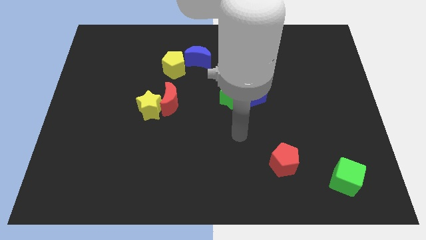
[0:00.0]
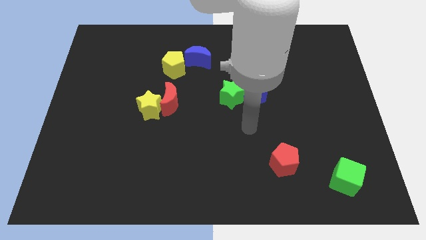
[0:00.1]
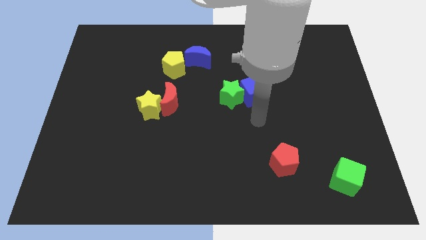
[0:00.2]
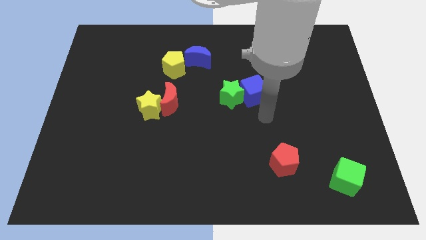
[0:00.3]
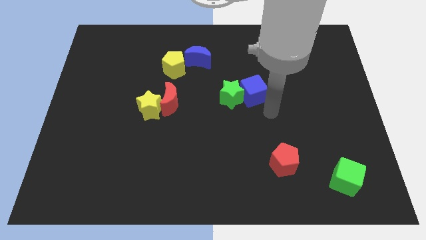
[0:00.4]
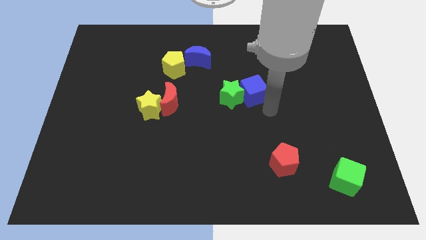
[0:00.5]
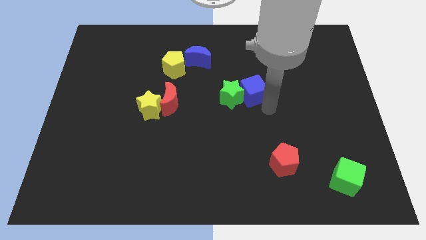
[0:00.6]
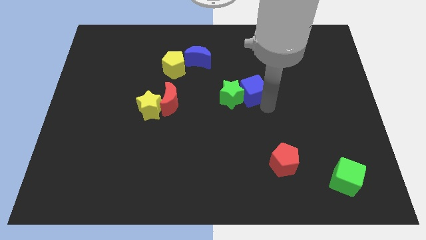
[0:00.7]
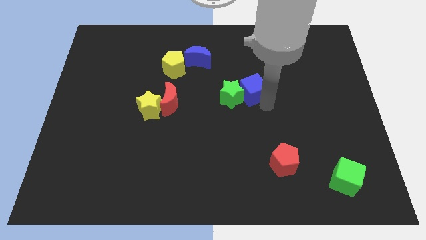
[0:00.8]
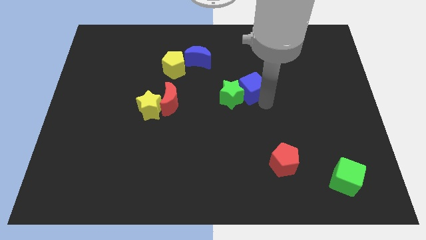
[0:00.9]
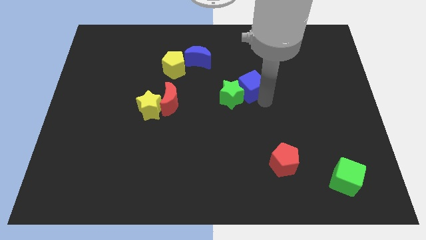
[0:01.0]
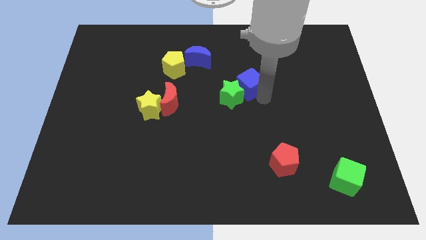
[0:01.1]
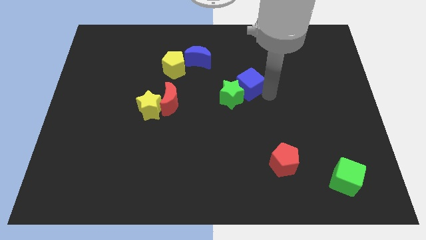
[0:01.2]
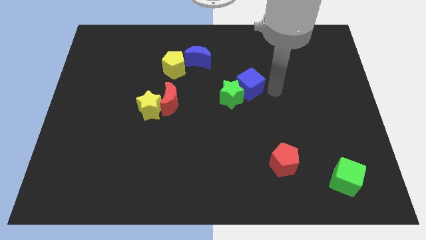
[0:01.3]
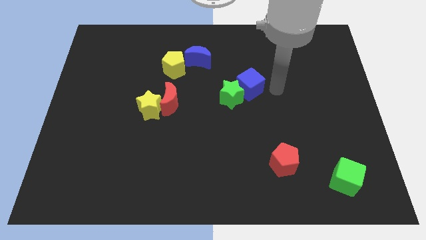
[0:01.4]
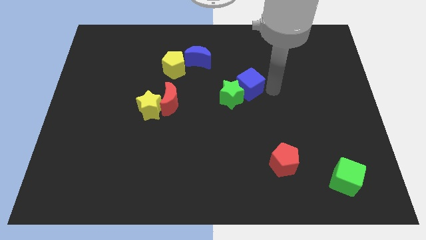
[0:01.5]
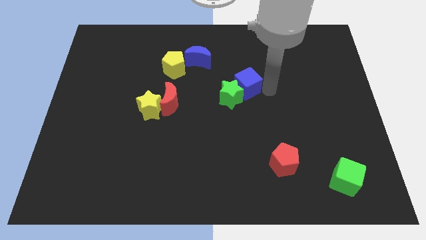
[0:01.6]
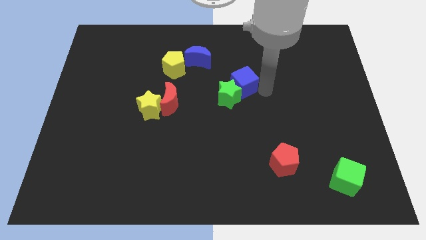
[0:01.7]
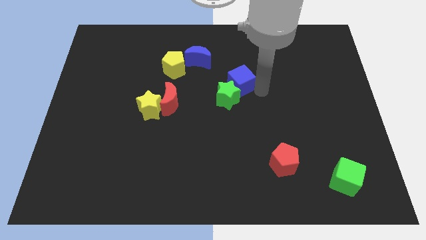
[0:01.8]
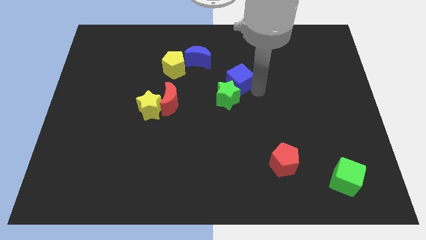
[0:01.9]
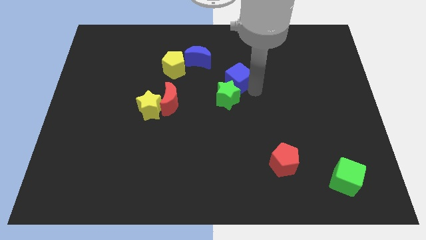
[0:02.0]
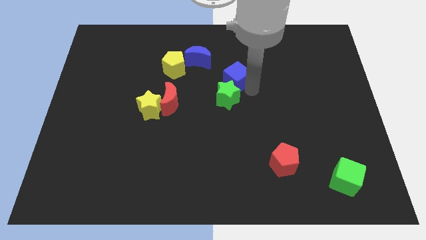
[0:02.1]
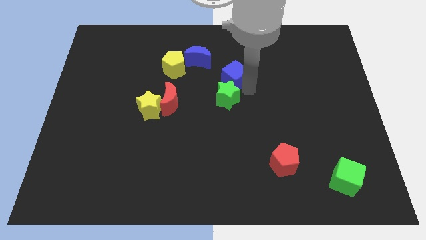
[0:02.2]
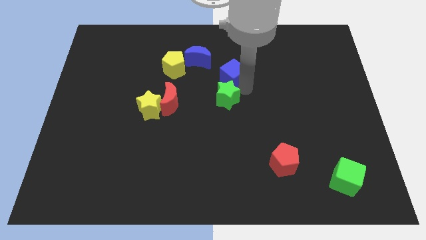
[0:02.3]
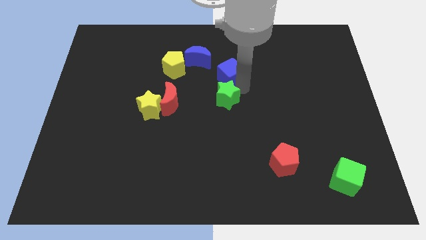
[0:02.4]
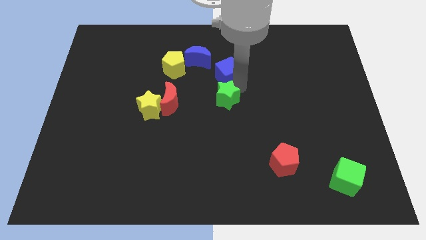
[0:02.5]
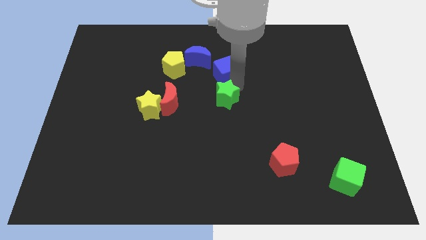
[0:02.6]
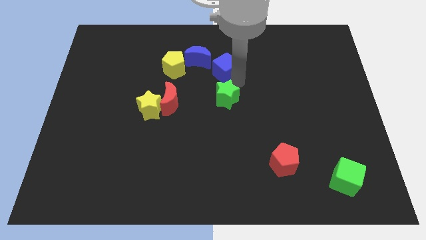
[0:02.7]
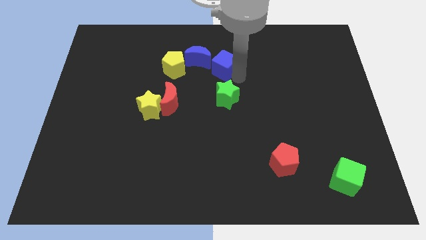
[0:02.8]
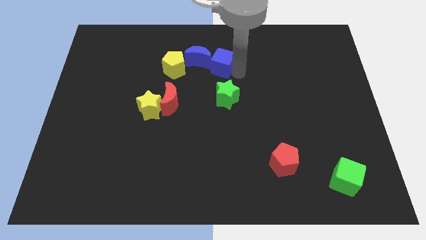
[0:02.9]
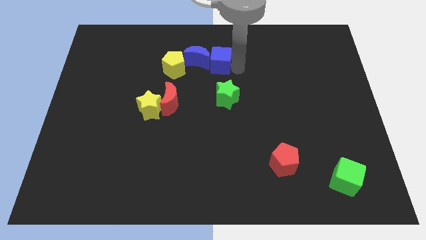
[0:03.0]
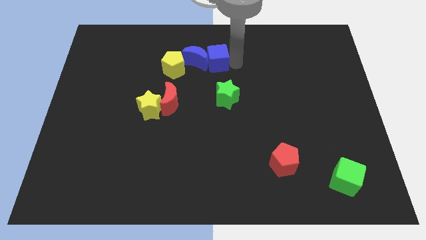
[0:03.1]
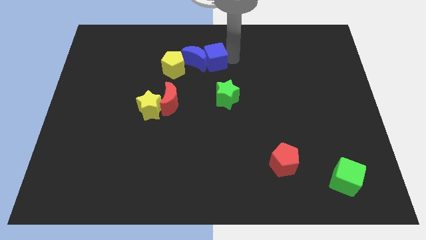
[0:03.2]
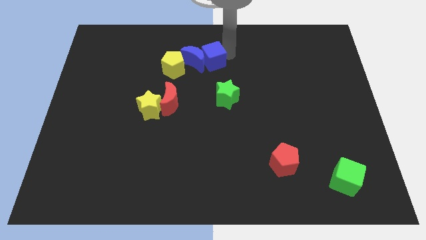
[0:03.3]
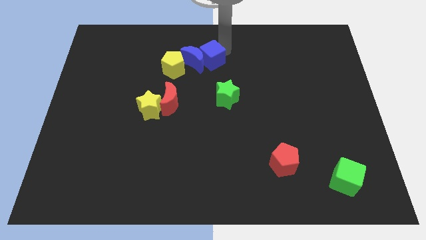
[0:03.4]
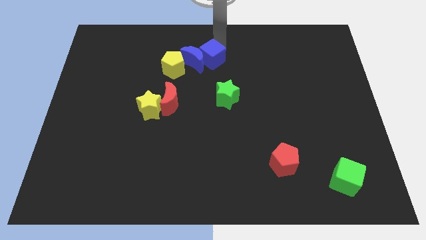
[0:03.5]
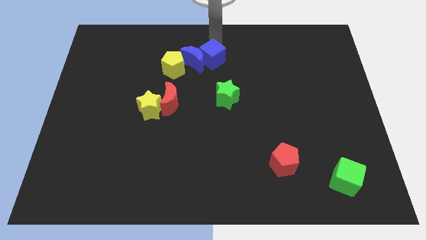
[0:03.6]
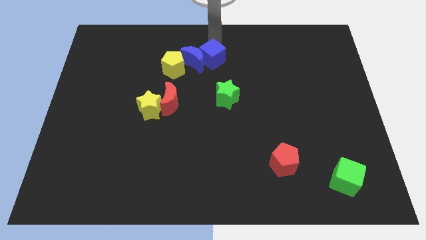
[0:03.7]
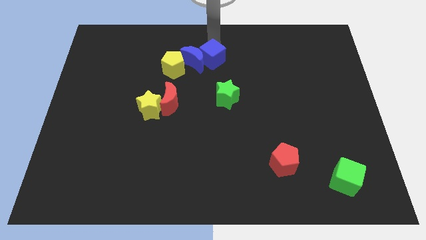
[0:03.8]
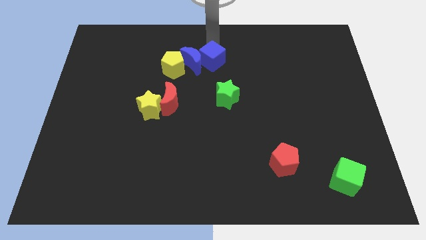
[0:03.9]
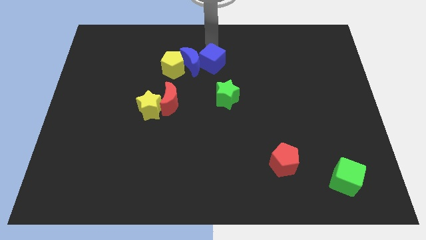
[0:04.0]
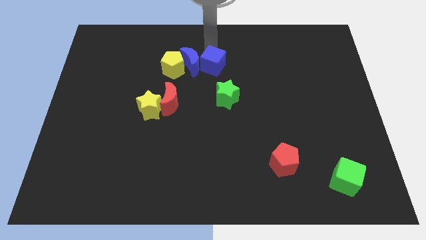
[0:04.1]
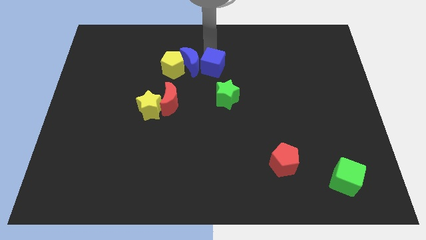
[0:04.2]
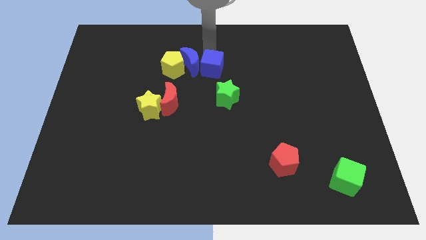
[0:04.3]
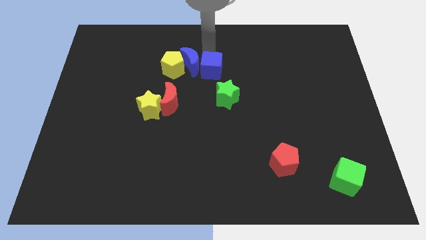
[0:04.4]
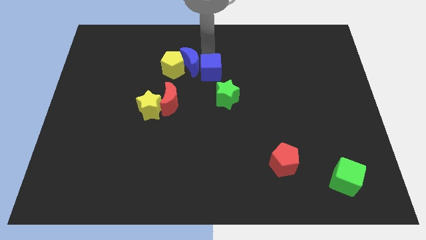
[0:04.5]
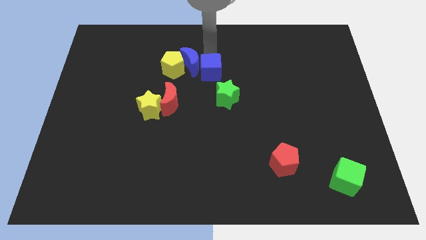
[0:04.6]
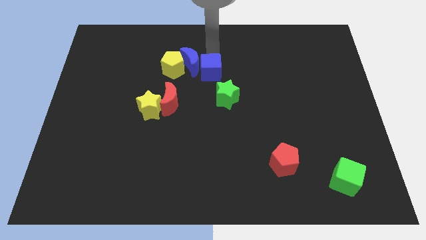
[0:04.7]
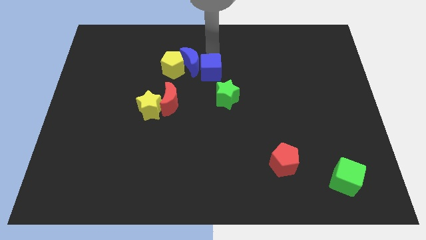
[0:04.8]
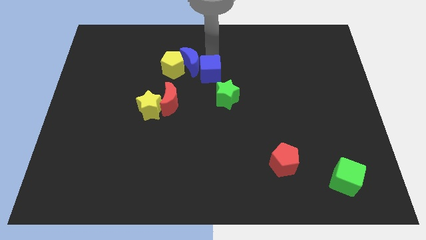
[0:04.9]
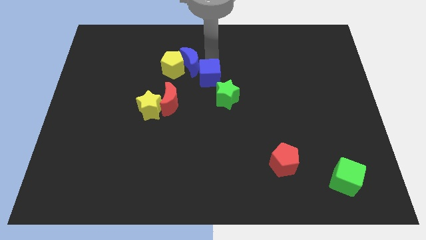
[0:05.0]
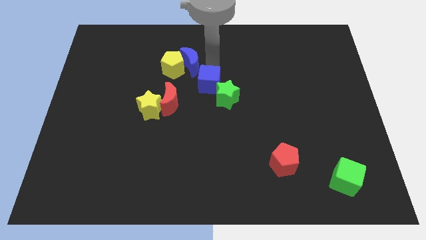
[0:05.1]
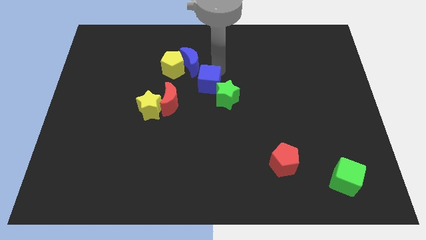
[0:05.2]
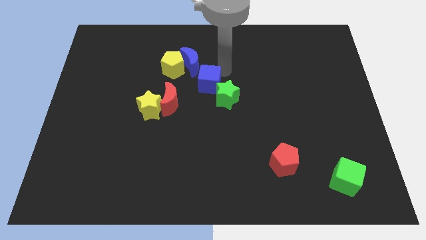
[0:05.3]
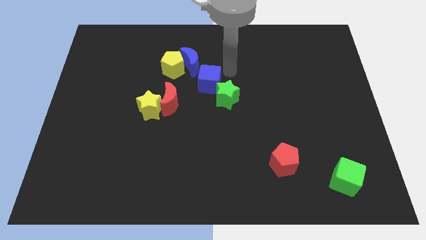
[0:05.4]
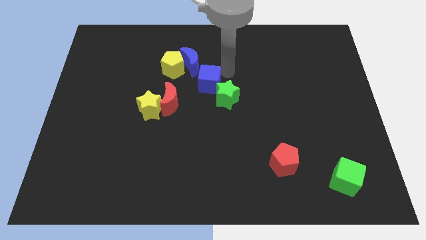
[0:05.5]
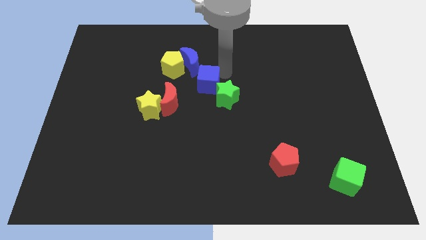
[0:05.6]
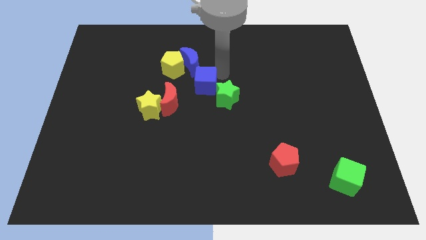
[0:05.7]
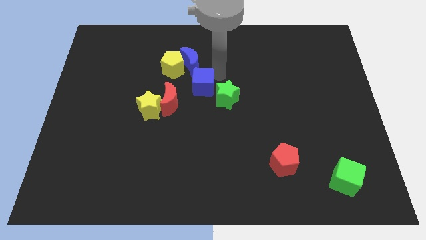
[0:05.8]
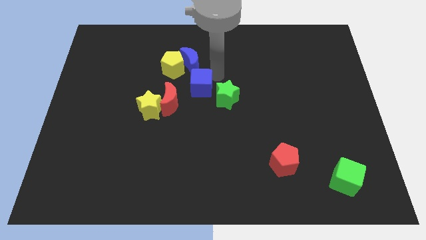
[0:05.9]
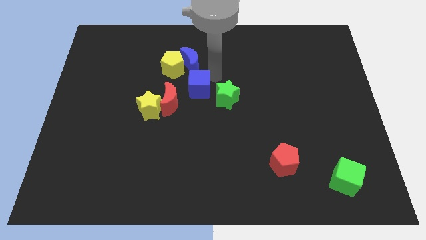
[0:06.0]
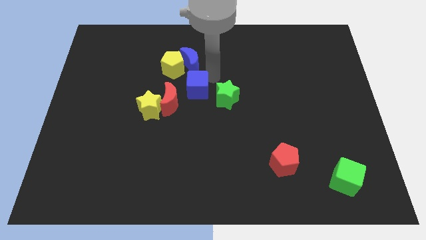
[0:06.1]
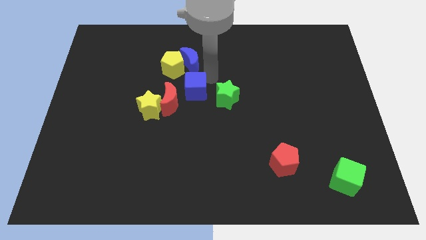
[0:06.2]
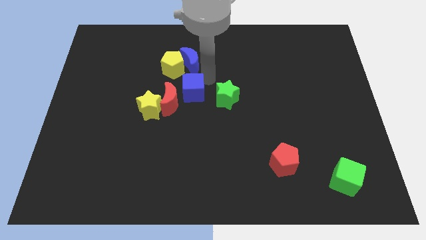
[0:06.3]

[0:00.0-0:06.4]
push the blue cube to the red moon
